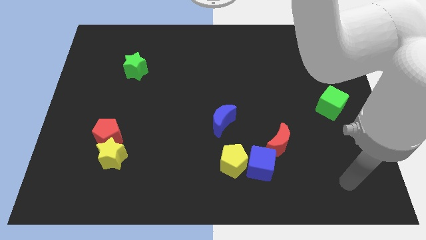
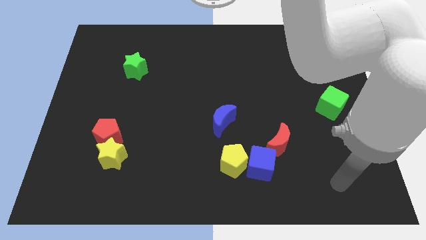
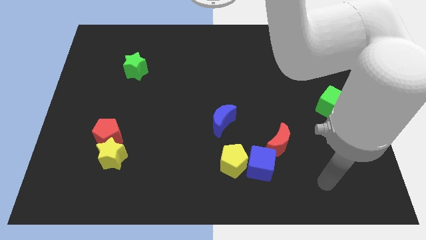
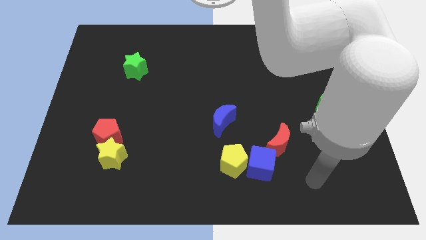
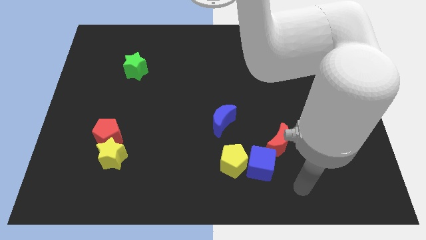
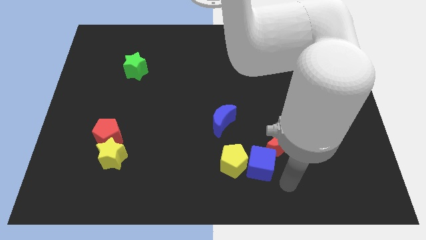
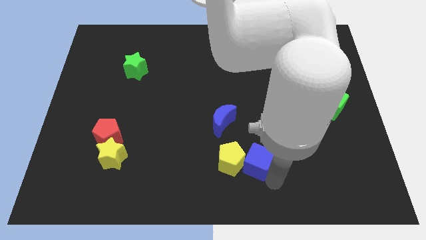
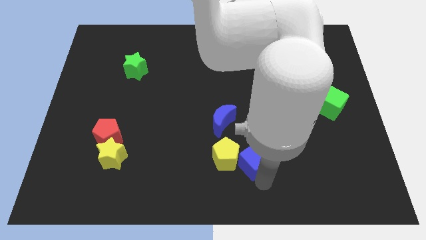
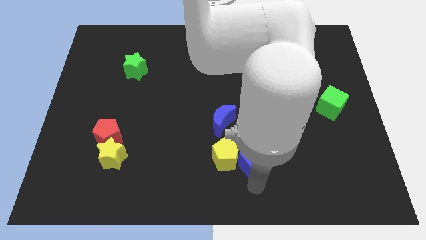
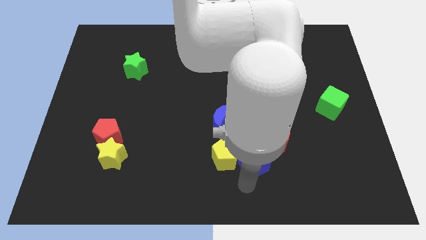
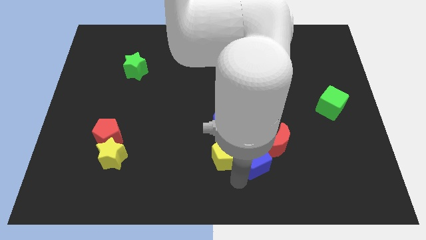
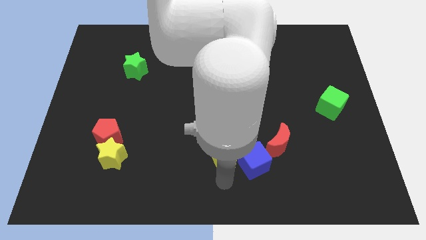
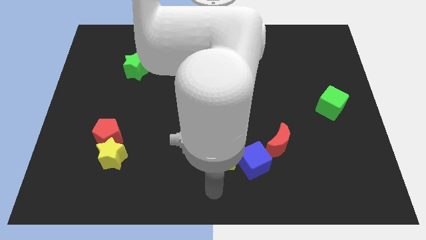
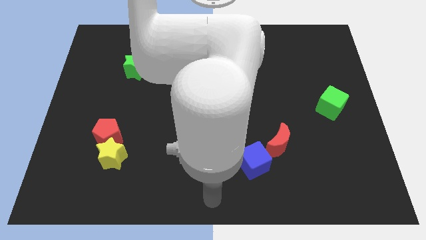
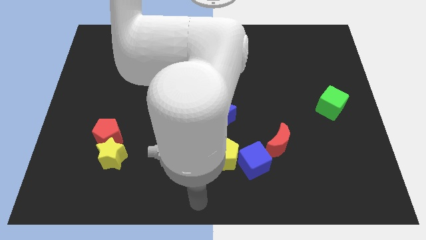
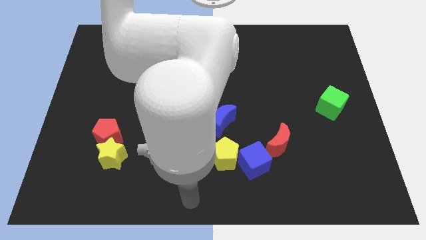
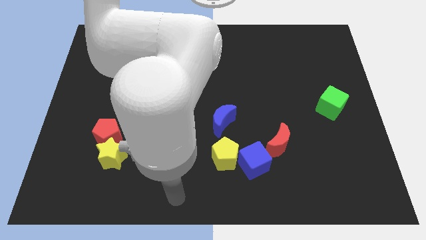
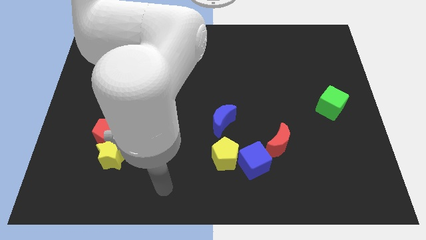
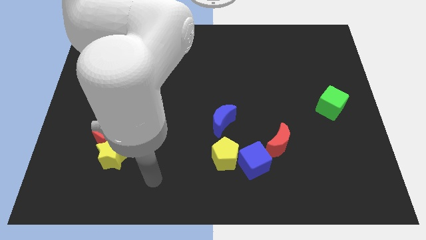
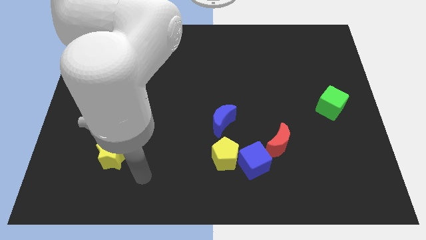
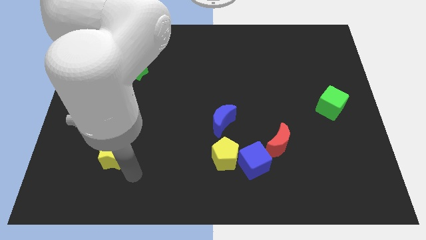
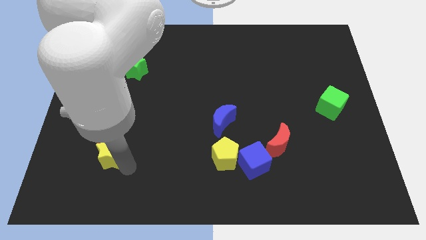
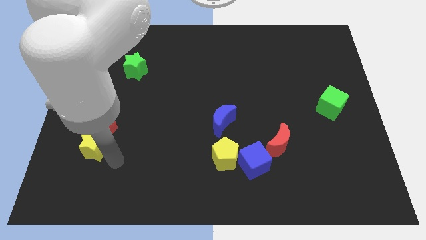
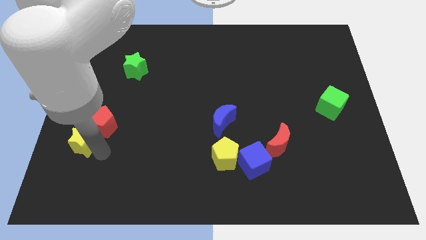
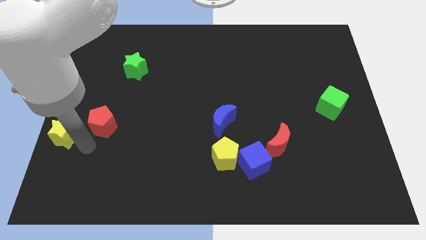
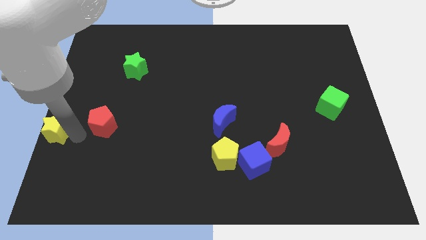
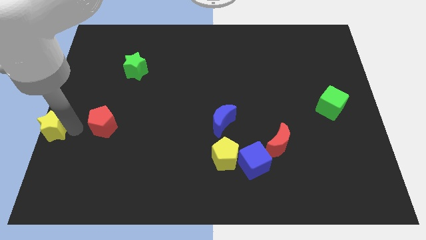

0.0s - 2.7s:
move the red pentagon away from the yellow star

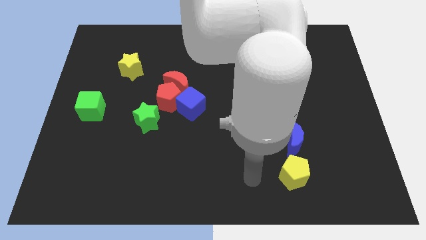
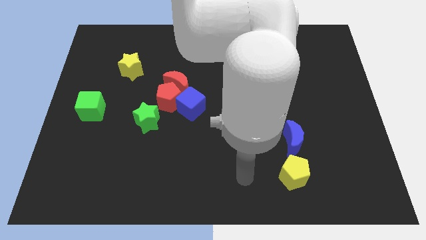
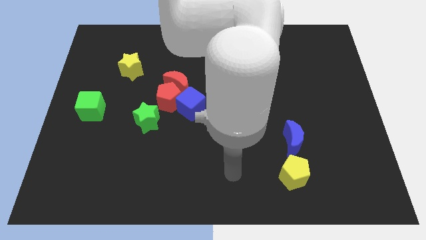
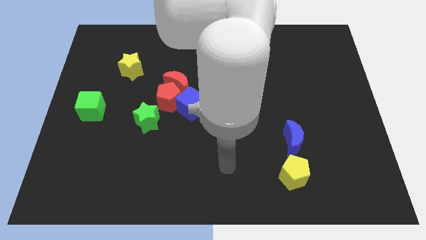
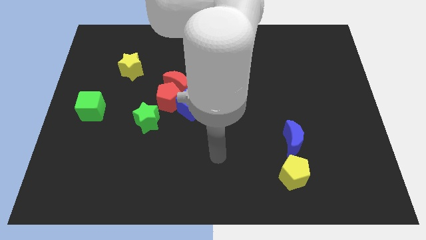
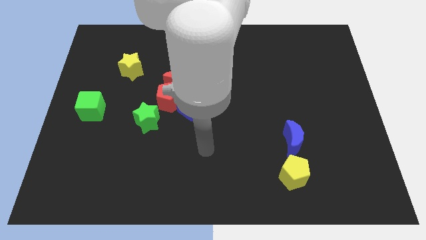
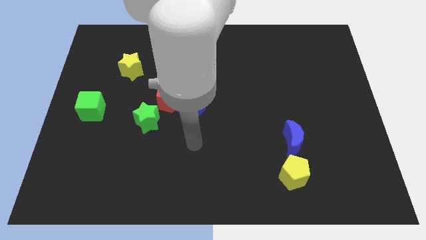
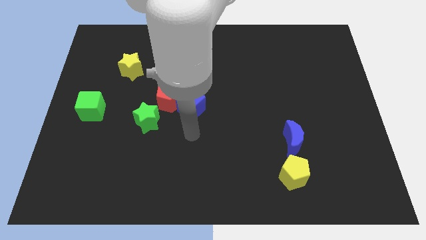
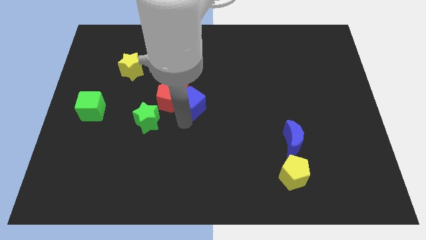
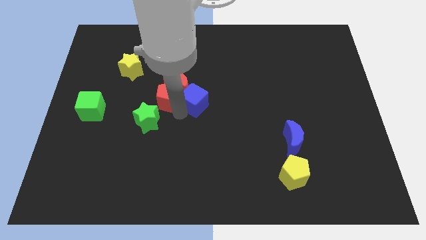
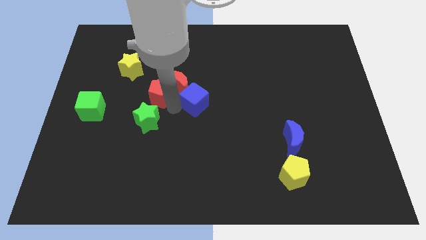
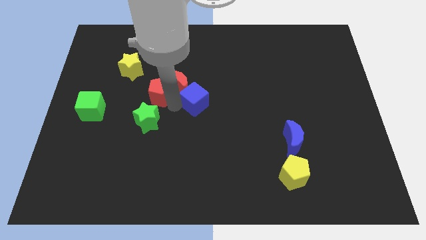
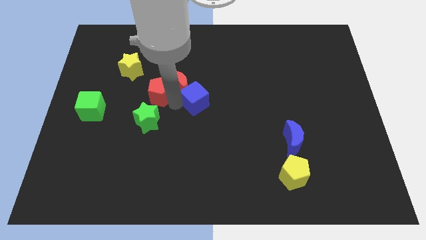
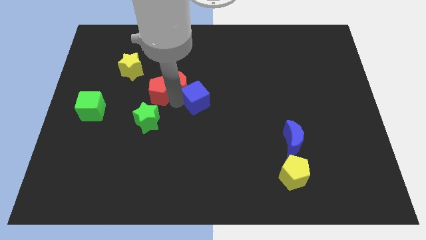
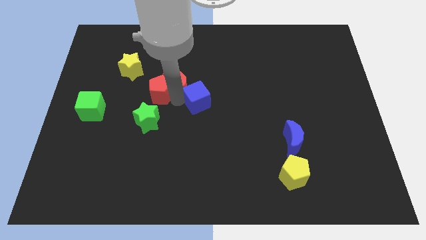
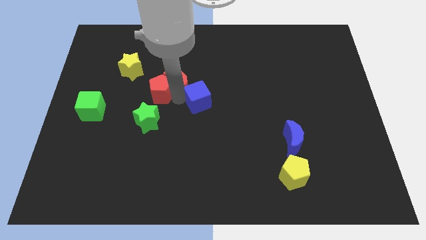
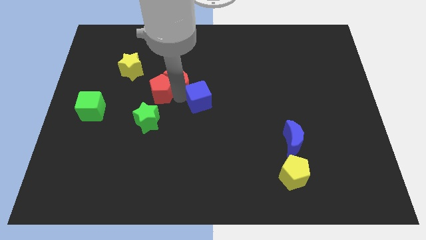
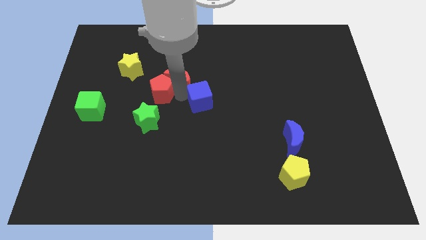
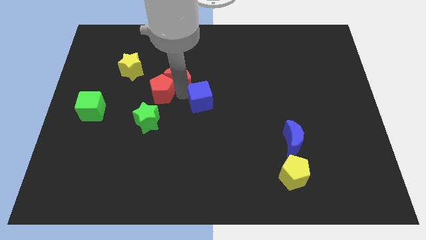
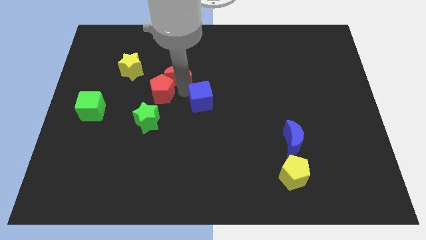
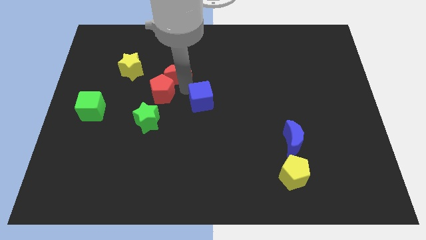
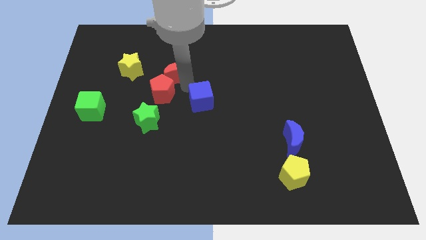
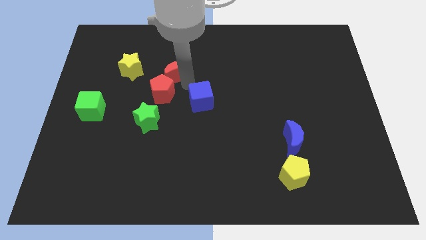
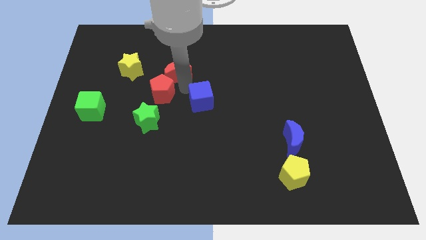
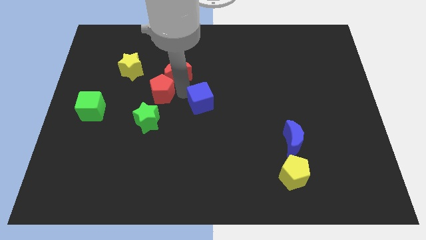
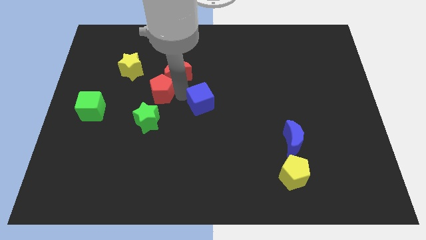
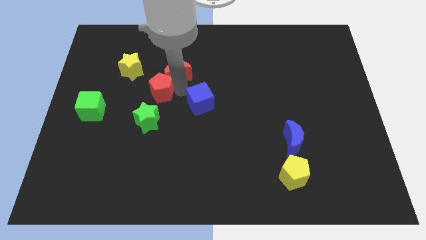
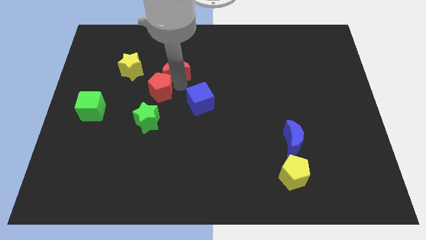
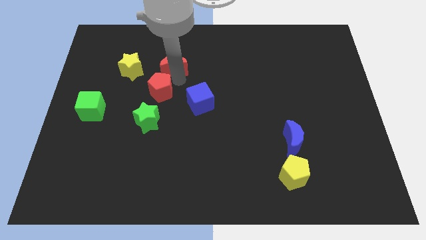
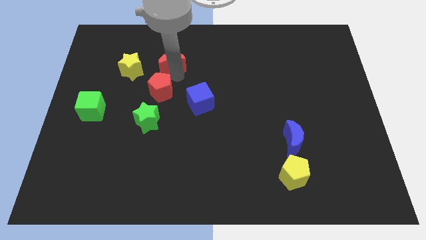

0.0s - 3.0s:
separate the red moon from the red pentagon and blue cube

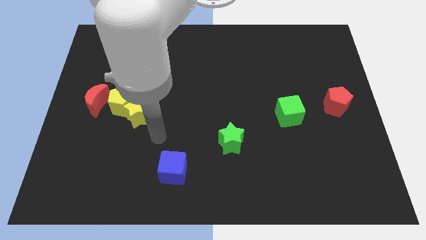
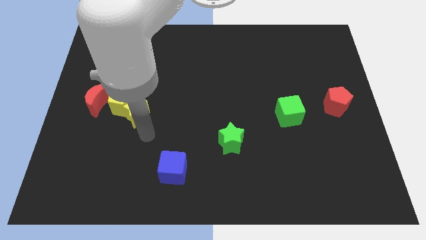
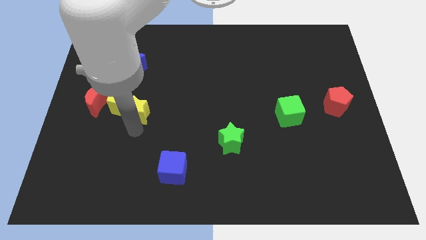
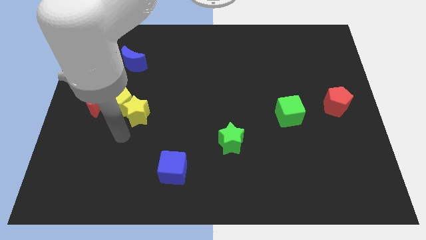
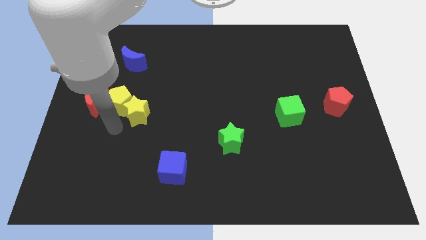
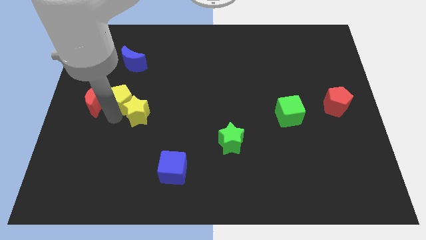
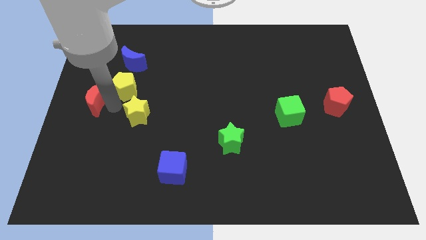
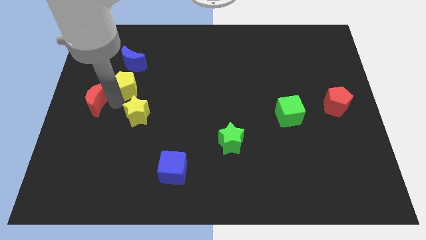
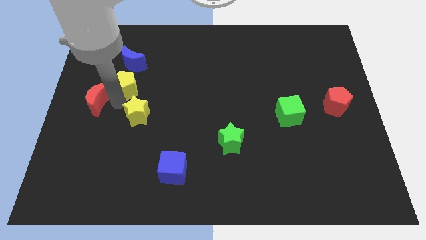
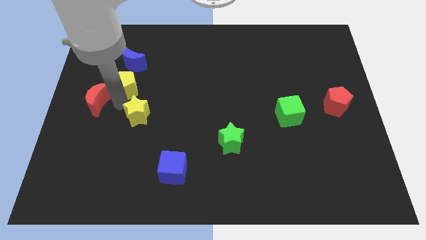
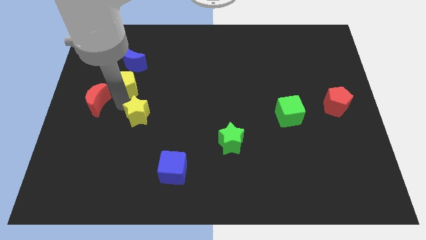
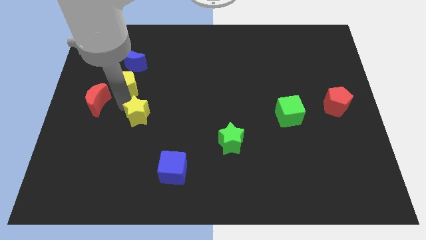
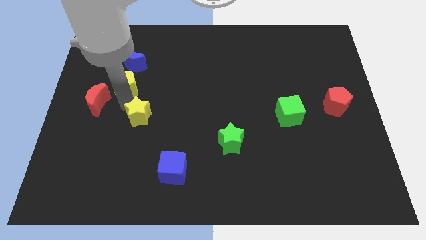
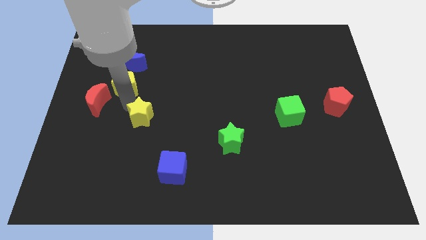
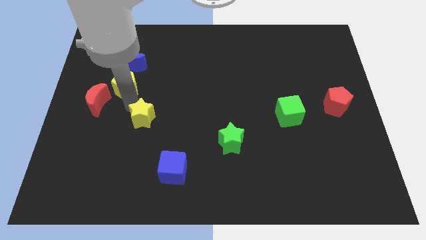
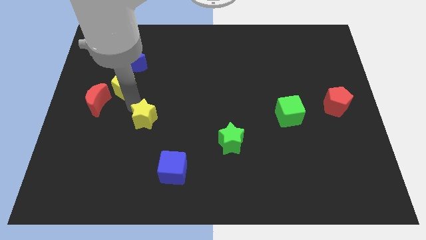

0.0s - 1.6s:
pull the yellow star apart from the yellow pentagon

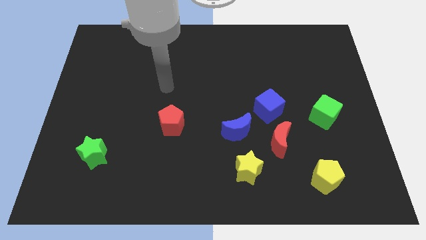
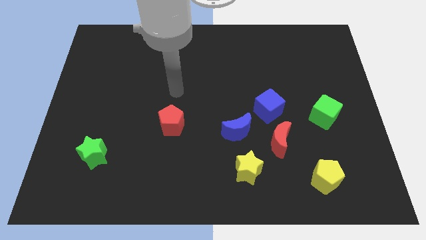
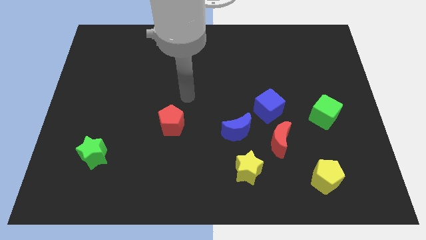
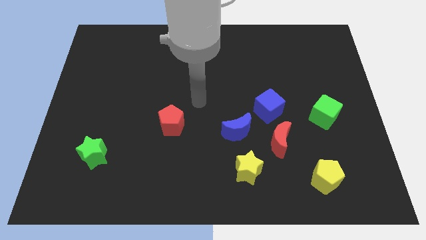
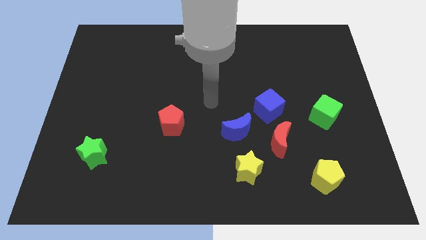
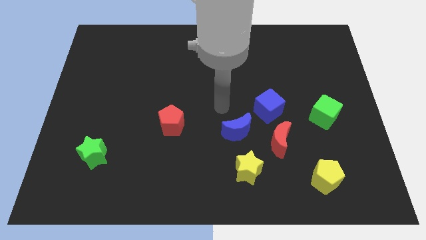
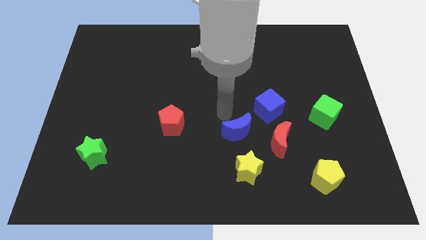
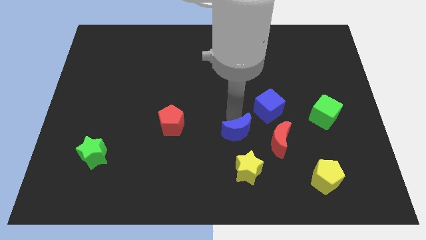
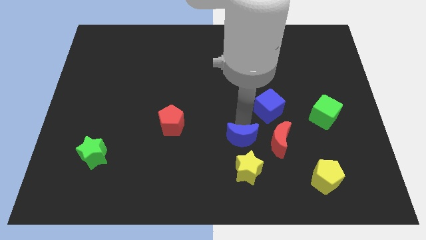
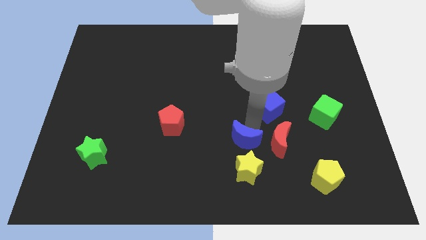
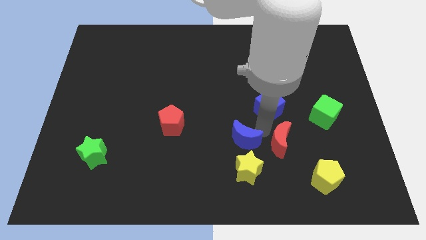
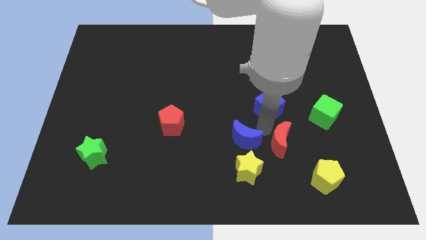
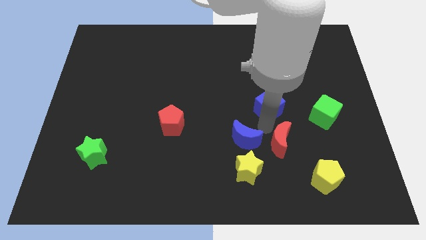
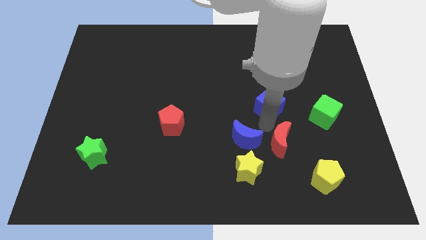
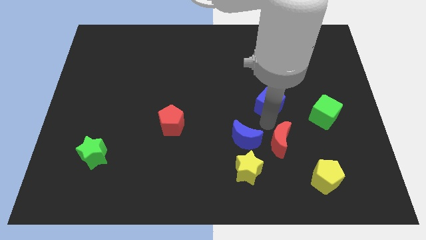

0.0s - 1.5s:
pull the blue cube apart from the red moon and blue moon

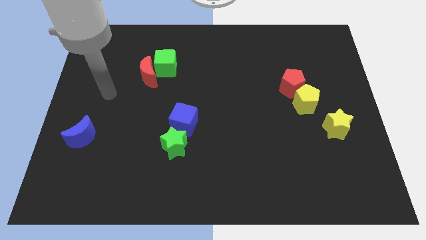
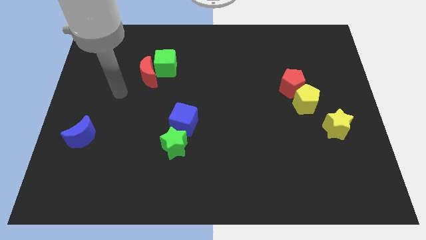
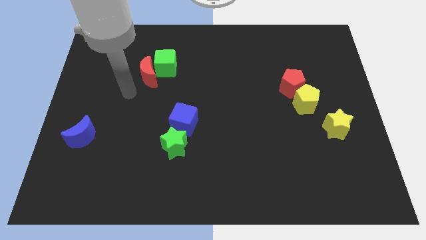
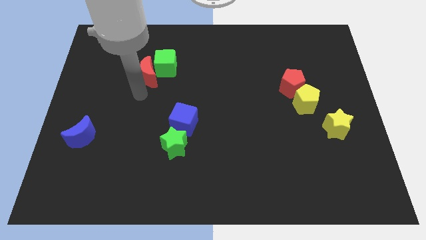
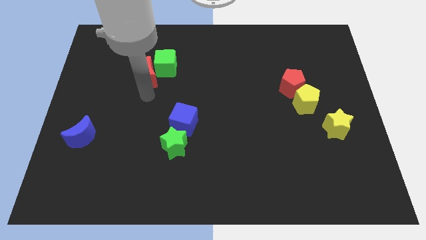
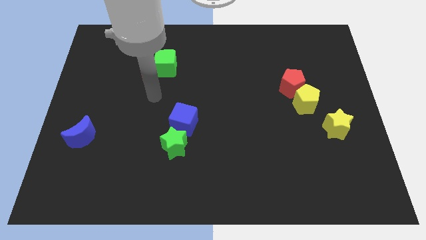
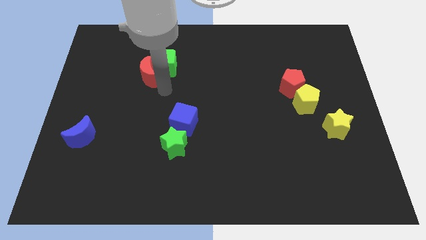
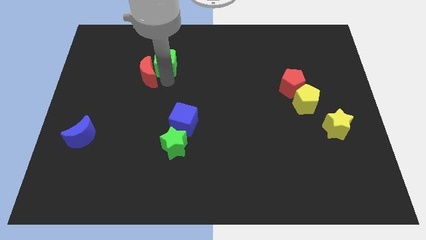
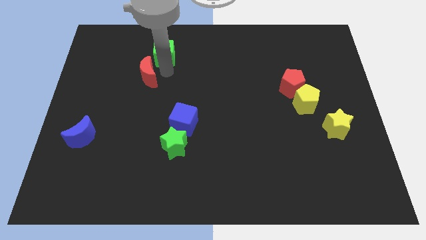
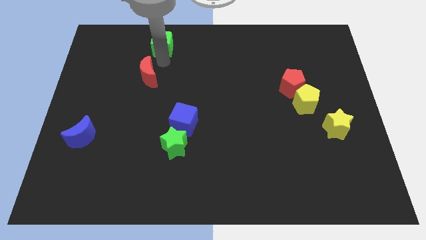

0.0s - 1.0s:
separate the red moon from the green cube
